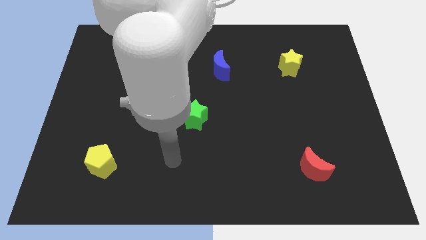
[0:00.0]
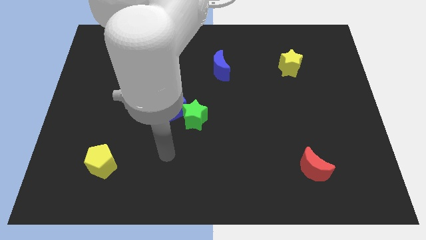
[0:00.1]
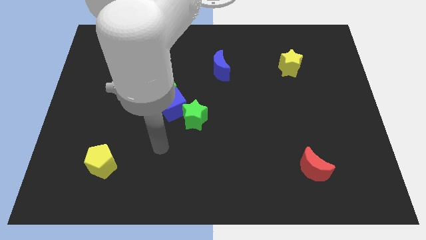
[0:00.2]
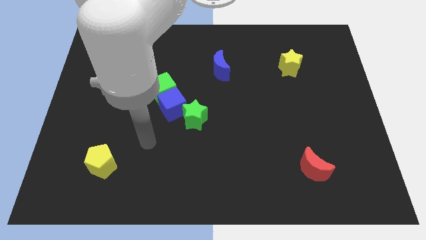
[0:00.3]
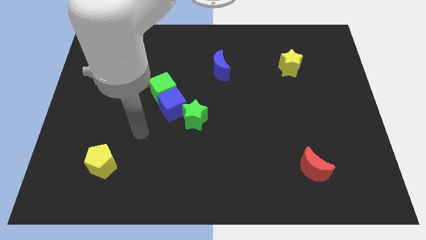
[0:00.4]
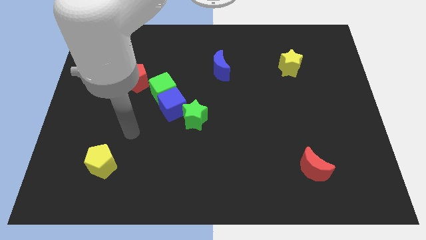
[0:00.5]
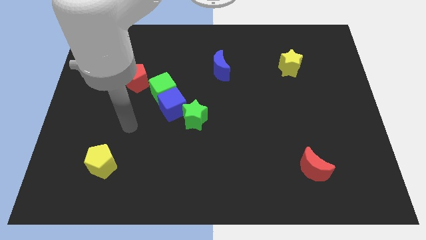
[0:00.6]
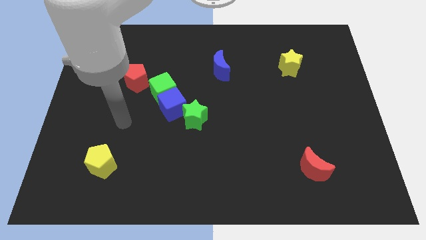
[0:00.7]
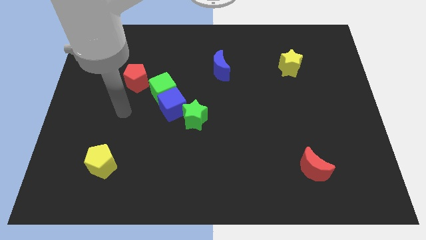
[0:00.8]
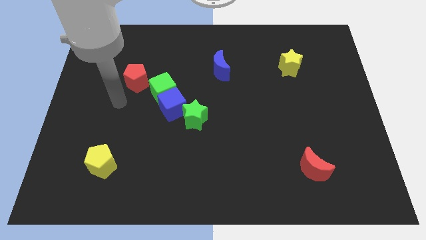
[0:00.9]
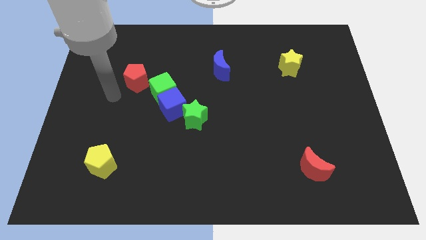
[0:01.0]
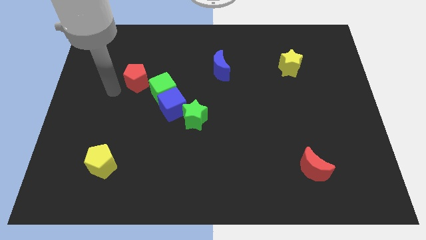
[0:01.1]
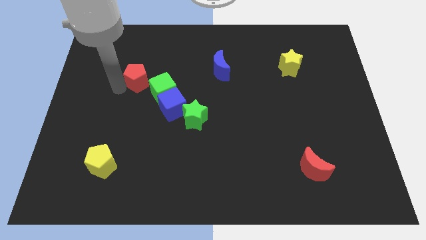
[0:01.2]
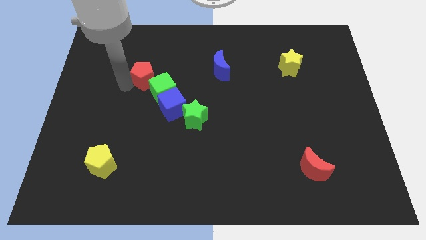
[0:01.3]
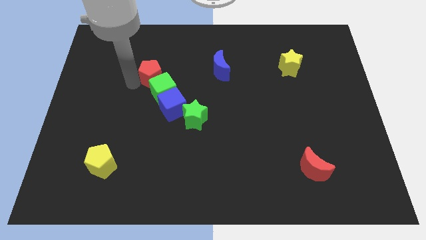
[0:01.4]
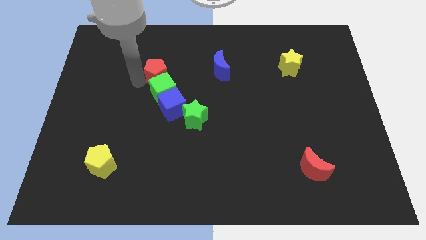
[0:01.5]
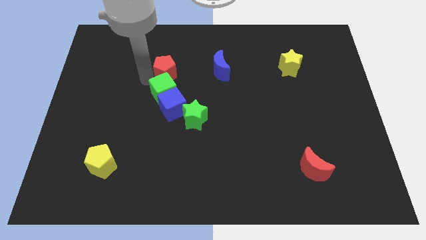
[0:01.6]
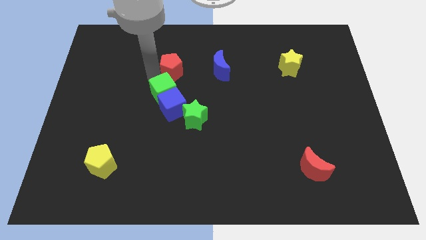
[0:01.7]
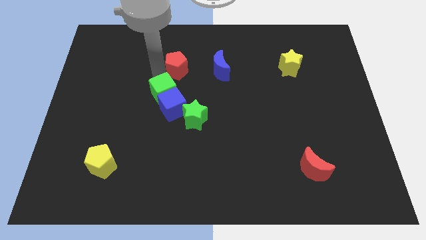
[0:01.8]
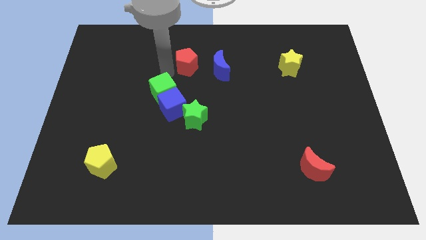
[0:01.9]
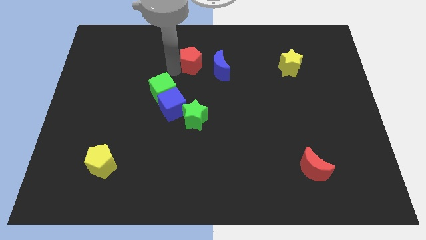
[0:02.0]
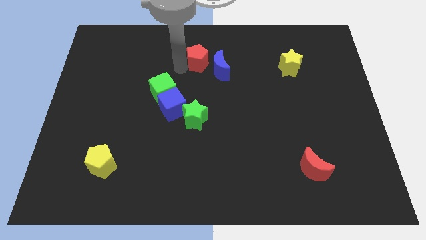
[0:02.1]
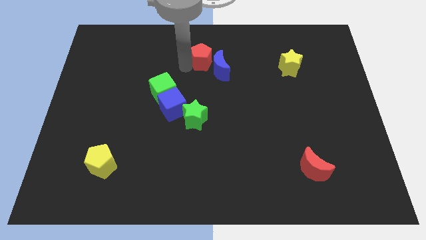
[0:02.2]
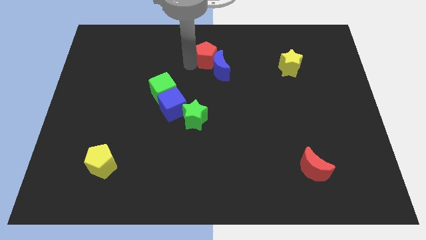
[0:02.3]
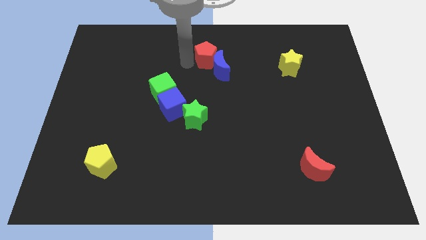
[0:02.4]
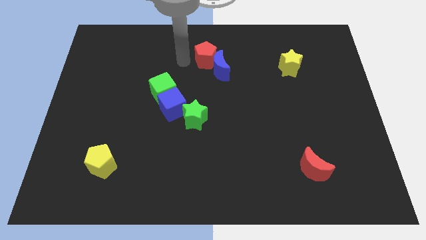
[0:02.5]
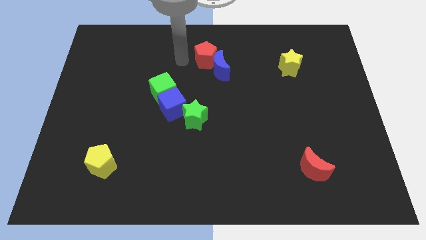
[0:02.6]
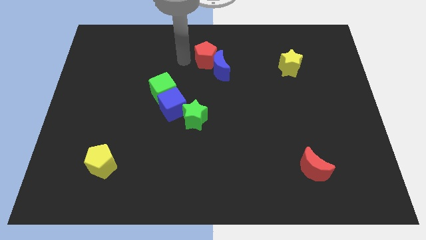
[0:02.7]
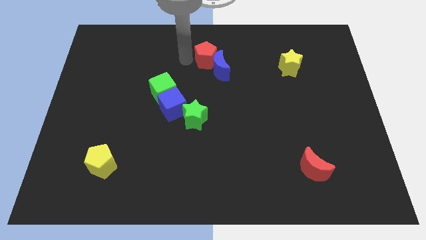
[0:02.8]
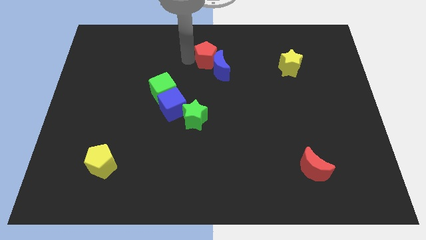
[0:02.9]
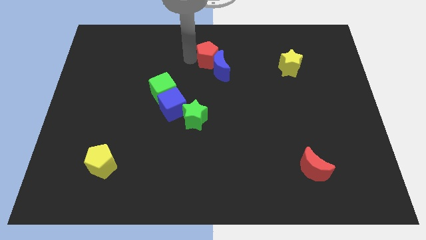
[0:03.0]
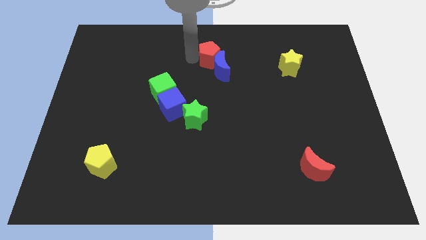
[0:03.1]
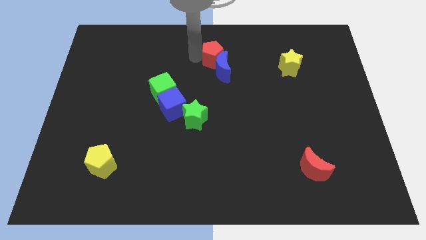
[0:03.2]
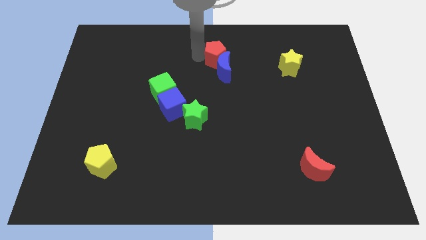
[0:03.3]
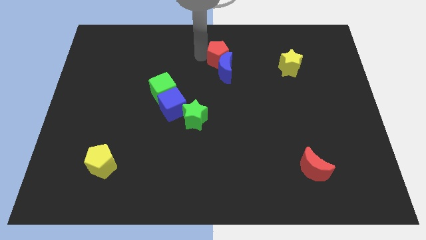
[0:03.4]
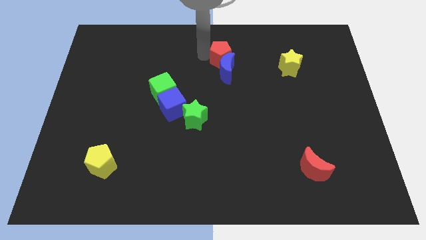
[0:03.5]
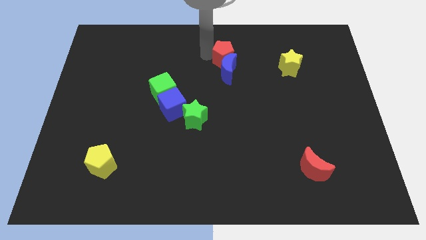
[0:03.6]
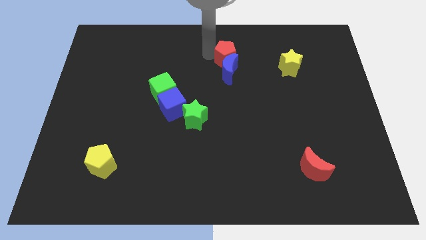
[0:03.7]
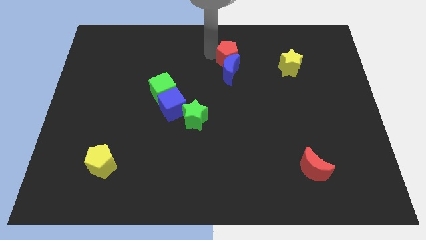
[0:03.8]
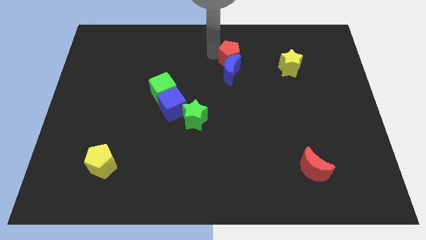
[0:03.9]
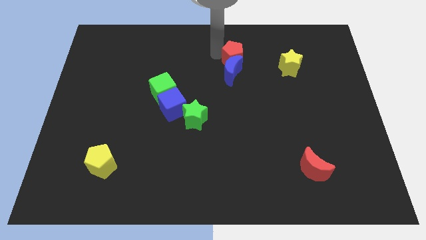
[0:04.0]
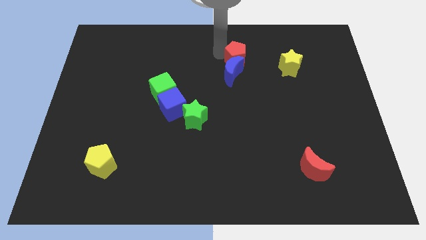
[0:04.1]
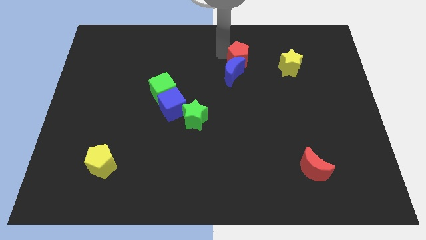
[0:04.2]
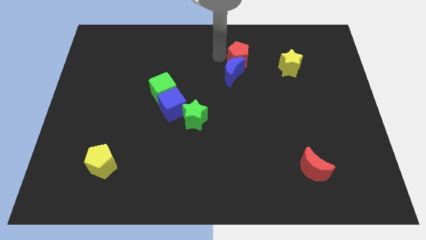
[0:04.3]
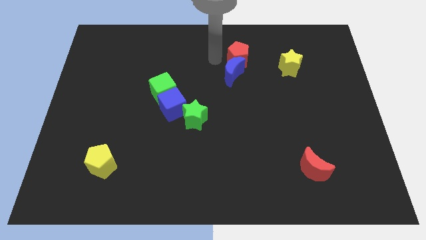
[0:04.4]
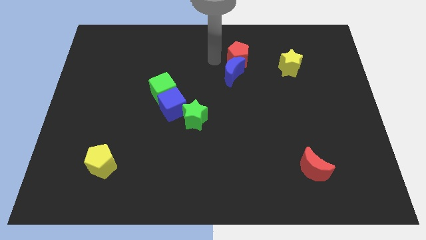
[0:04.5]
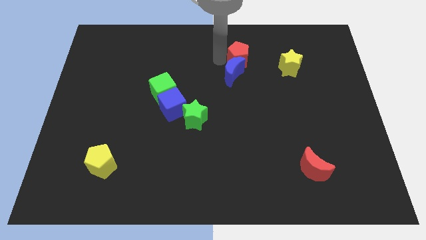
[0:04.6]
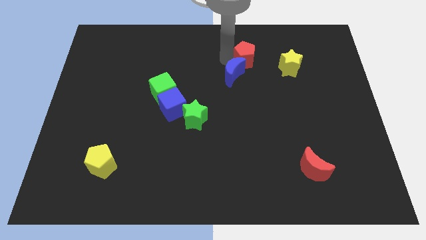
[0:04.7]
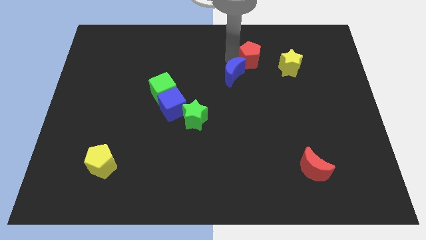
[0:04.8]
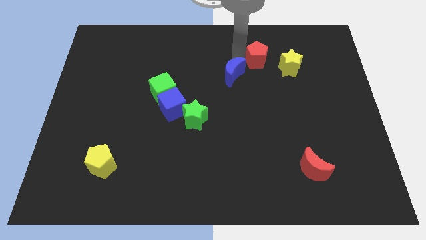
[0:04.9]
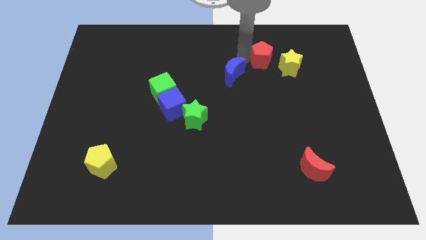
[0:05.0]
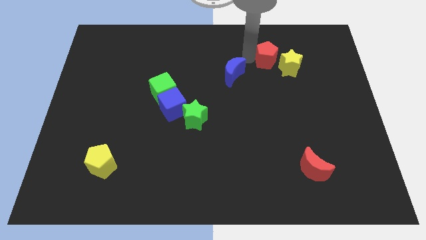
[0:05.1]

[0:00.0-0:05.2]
move the red pentagon next to the yellow star

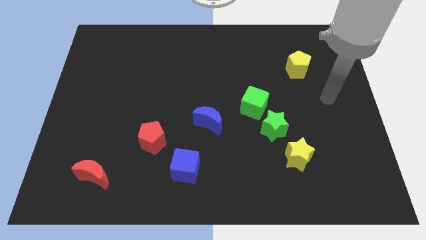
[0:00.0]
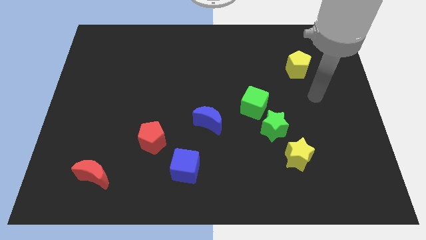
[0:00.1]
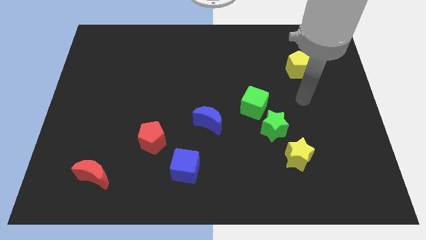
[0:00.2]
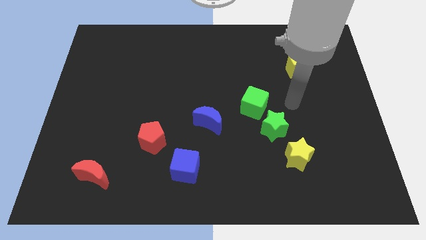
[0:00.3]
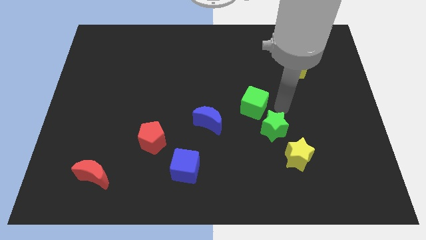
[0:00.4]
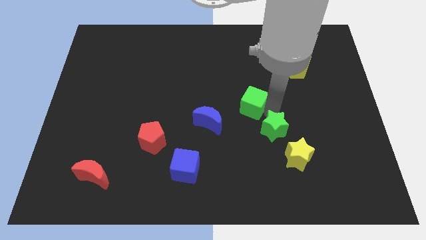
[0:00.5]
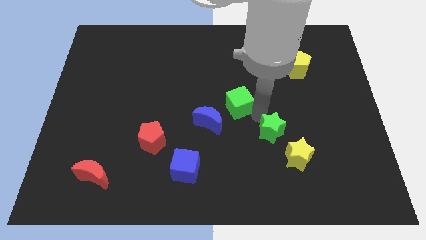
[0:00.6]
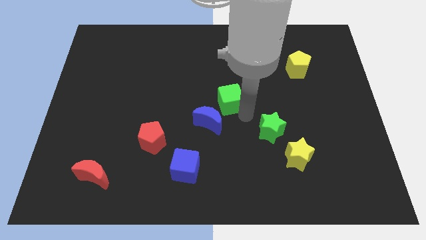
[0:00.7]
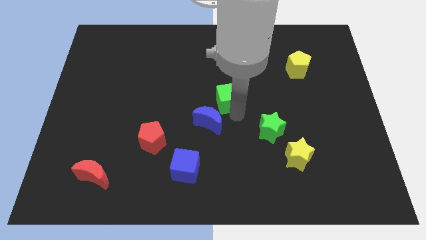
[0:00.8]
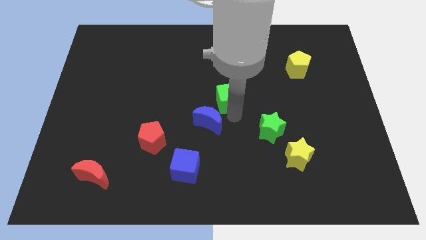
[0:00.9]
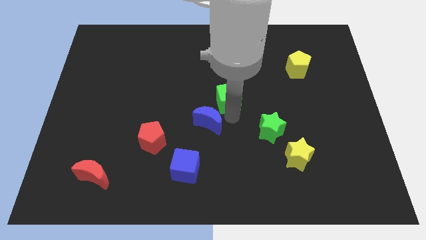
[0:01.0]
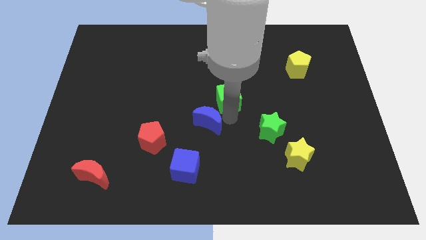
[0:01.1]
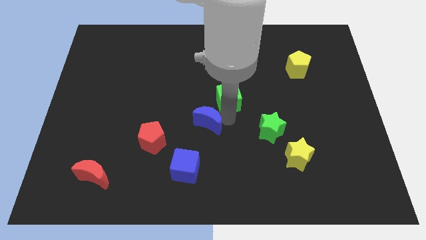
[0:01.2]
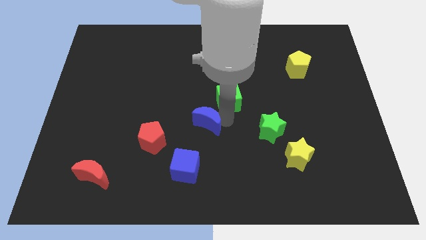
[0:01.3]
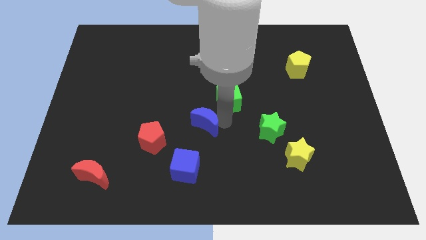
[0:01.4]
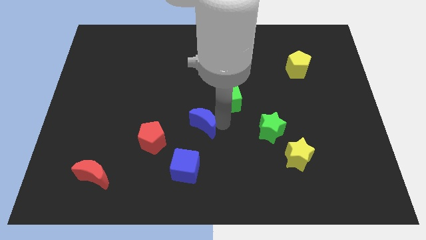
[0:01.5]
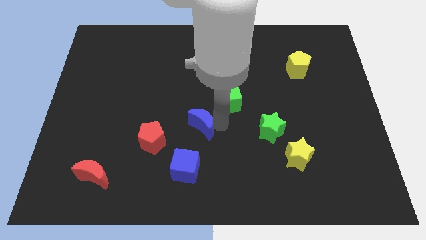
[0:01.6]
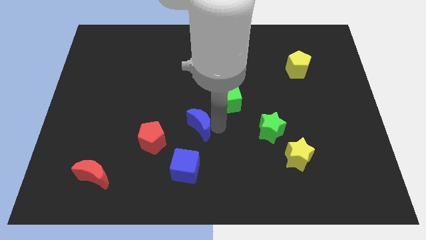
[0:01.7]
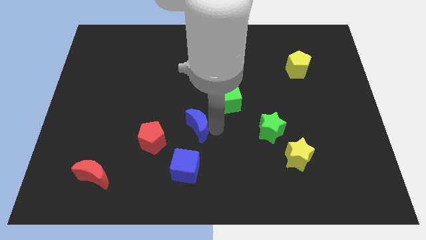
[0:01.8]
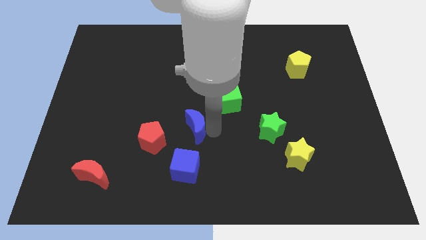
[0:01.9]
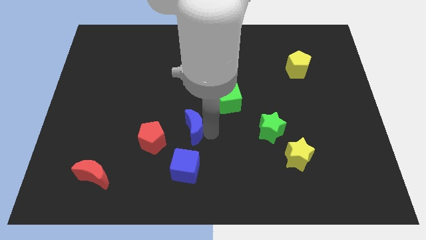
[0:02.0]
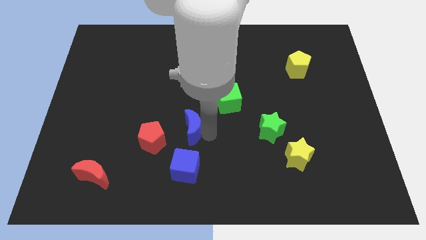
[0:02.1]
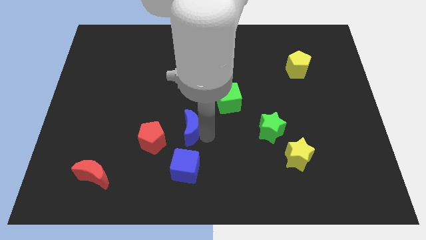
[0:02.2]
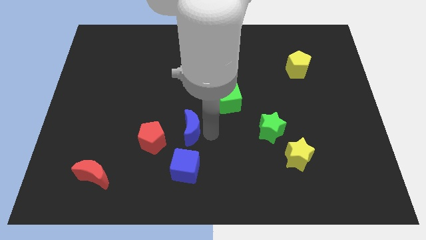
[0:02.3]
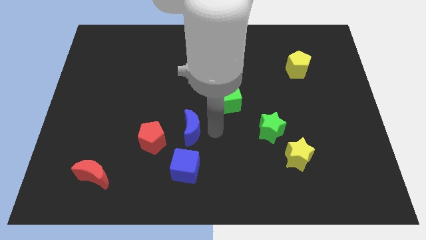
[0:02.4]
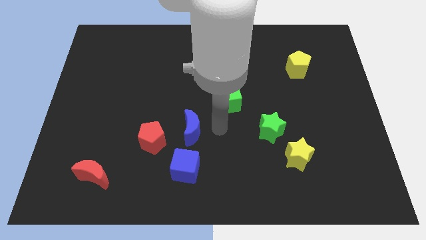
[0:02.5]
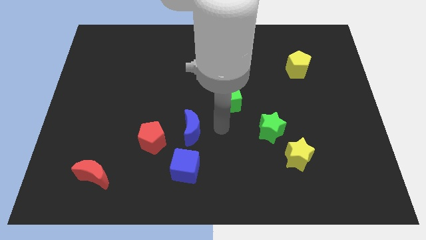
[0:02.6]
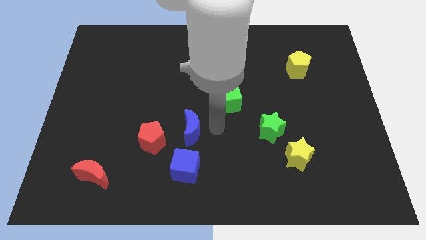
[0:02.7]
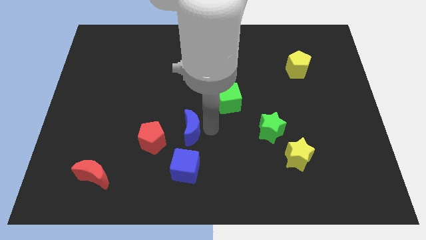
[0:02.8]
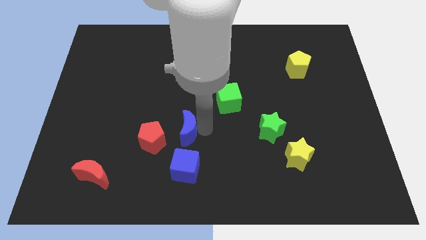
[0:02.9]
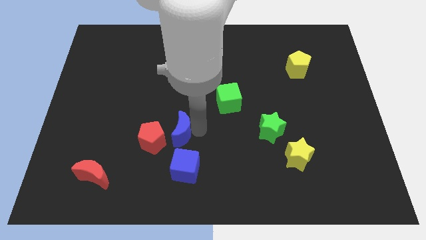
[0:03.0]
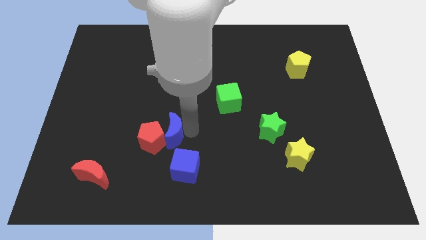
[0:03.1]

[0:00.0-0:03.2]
put the blue moon towards the red pentagon
